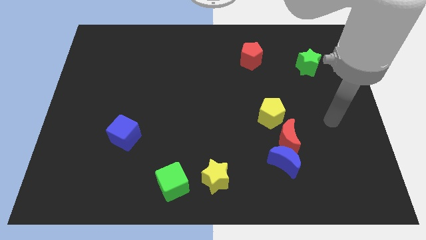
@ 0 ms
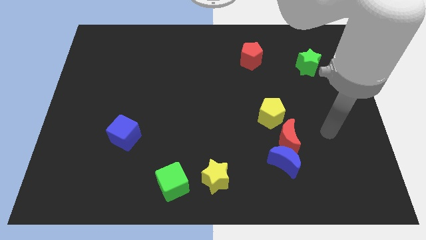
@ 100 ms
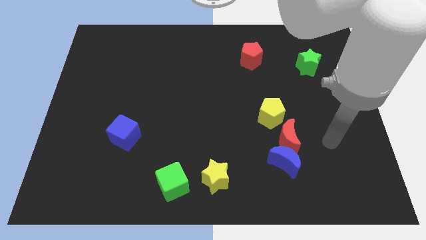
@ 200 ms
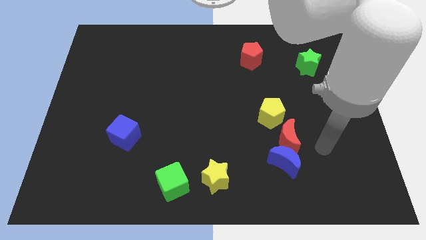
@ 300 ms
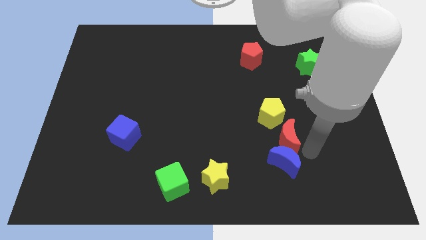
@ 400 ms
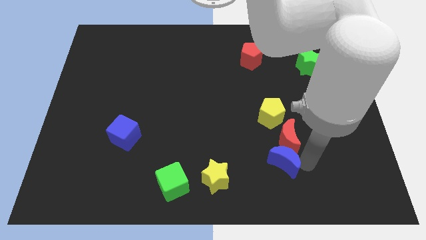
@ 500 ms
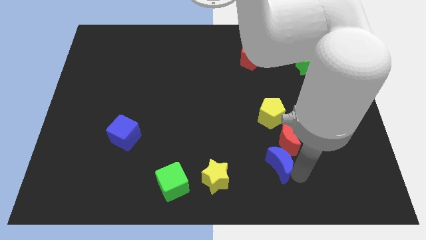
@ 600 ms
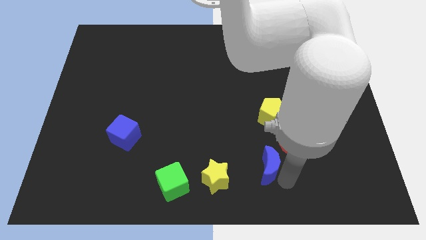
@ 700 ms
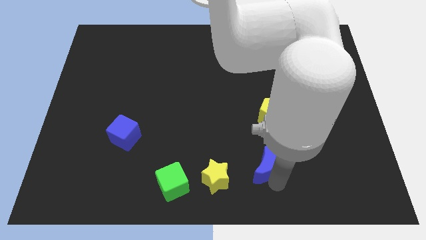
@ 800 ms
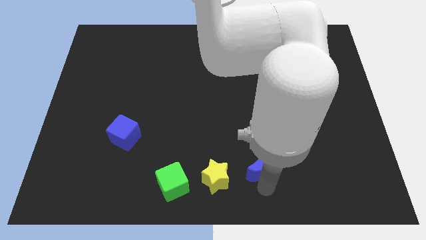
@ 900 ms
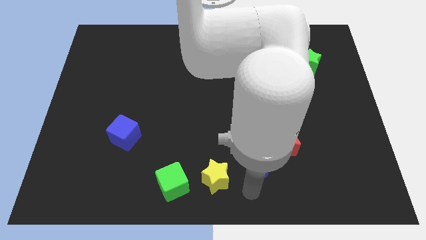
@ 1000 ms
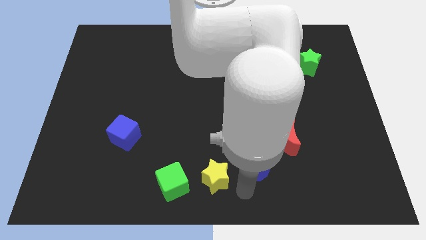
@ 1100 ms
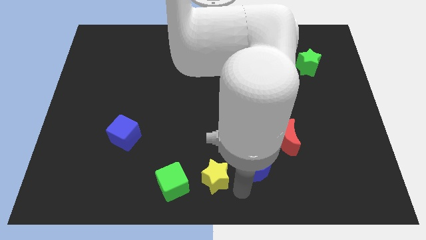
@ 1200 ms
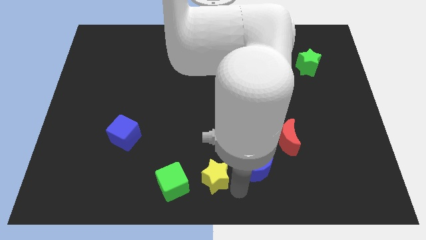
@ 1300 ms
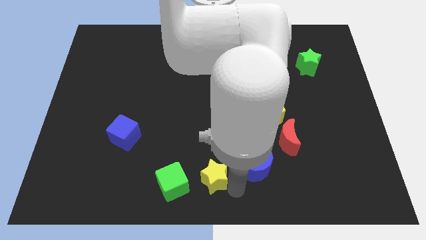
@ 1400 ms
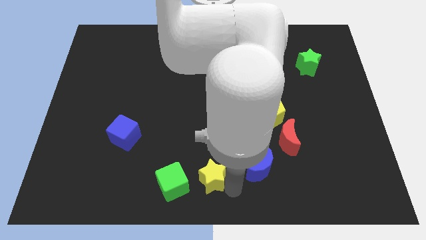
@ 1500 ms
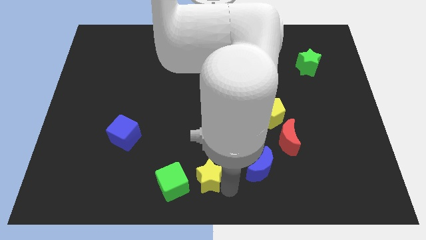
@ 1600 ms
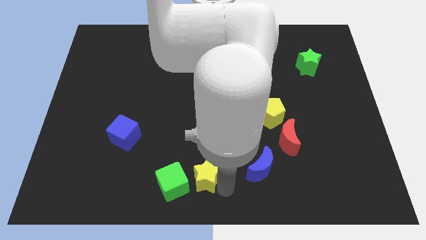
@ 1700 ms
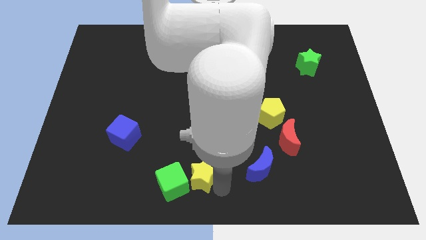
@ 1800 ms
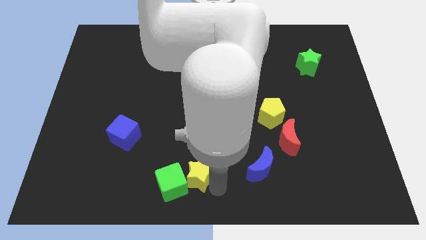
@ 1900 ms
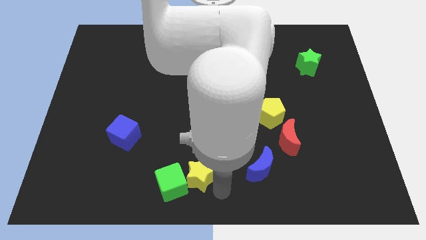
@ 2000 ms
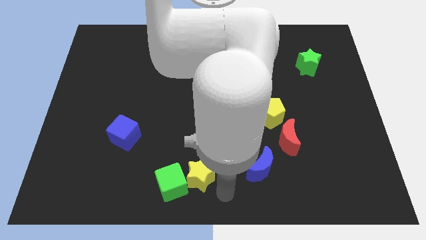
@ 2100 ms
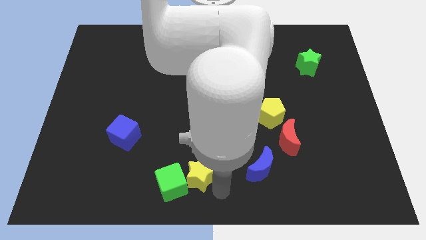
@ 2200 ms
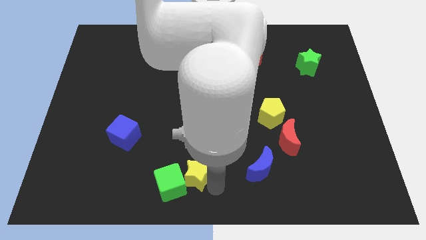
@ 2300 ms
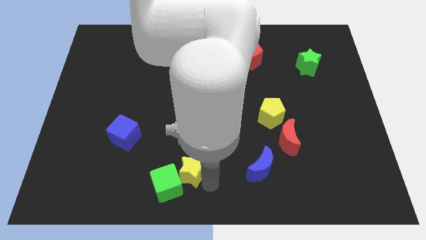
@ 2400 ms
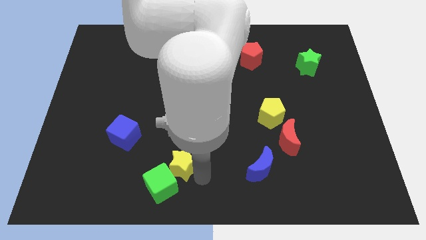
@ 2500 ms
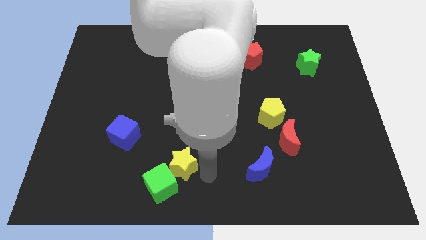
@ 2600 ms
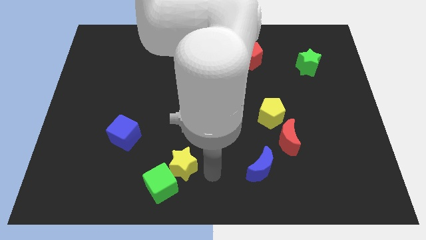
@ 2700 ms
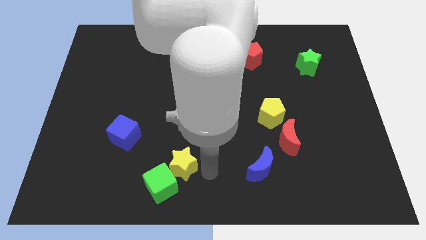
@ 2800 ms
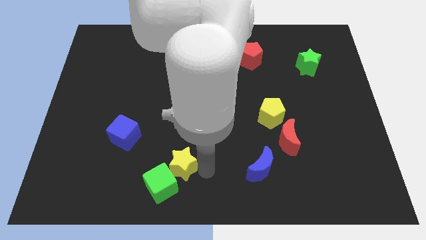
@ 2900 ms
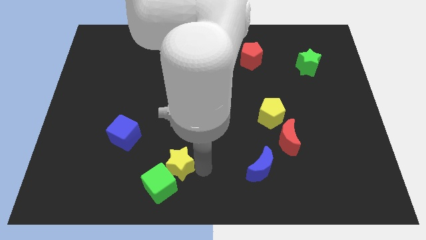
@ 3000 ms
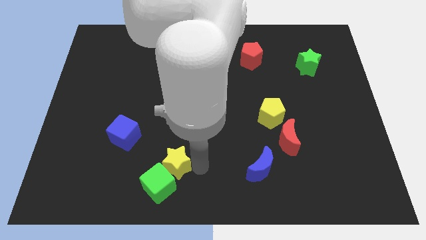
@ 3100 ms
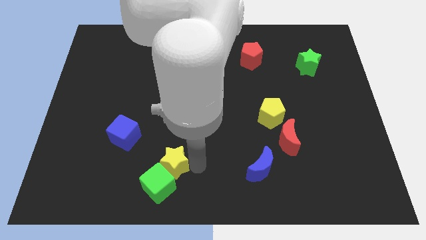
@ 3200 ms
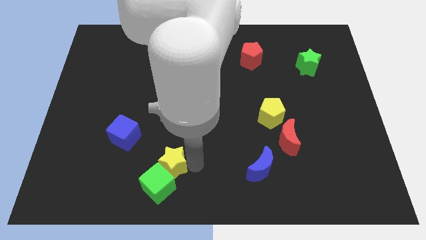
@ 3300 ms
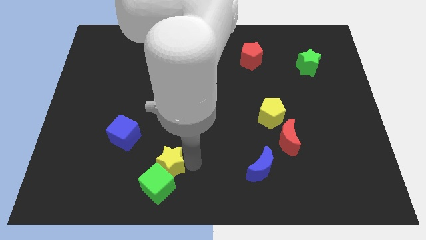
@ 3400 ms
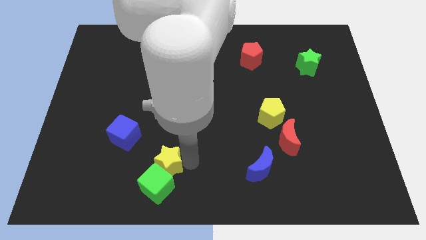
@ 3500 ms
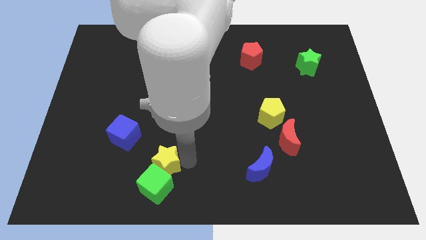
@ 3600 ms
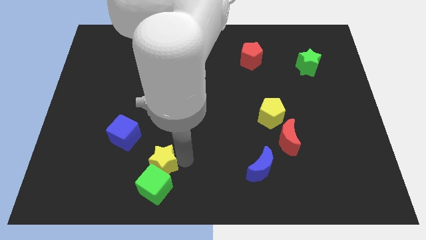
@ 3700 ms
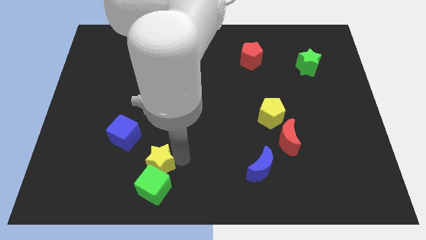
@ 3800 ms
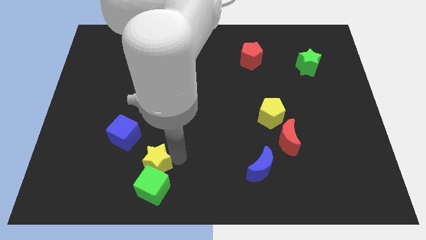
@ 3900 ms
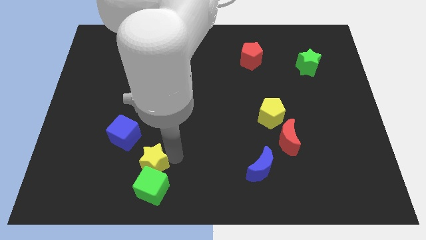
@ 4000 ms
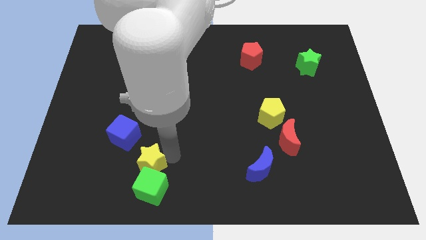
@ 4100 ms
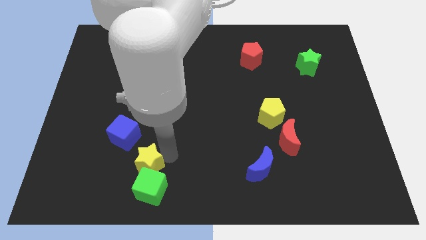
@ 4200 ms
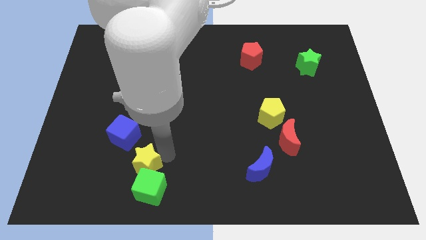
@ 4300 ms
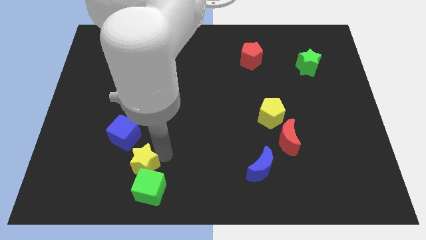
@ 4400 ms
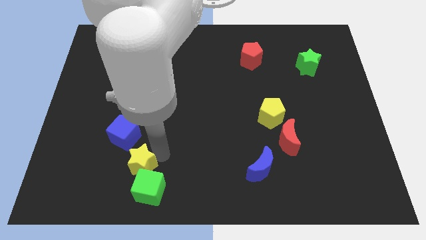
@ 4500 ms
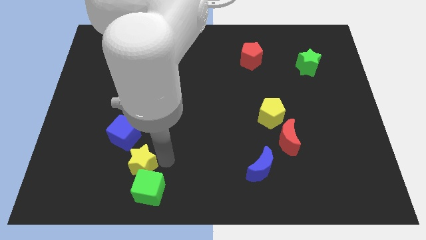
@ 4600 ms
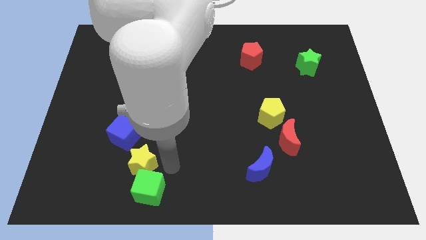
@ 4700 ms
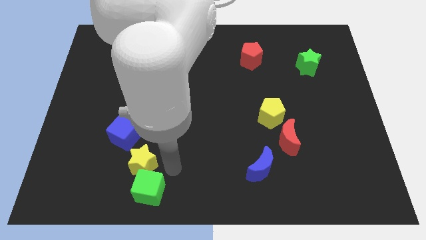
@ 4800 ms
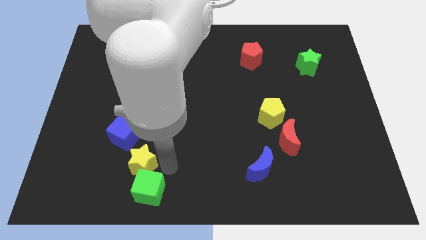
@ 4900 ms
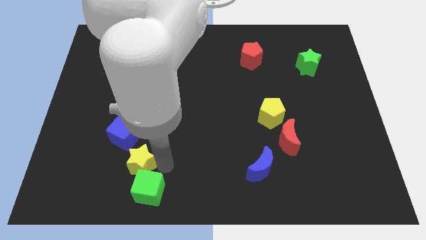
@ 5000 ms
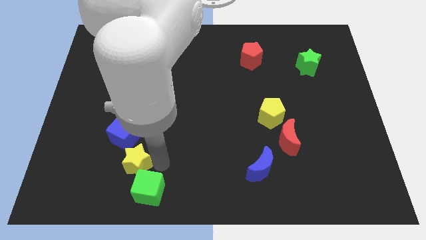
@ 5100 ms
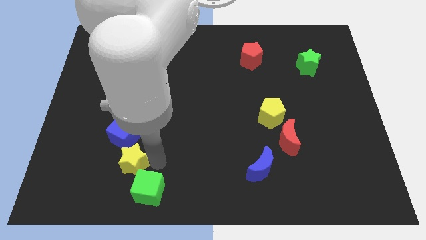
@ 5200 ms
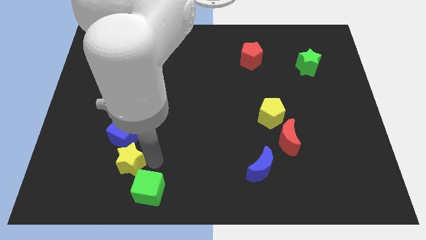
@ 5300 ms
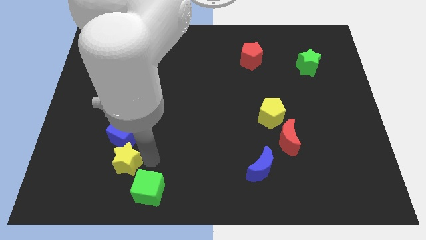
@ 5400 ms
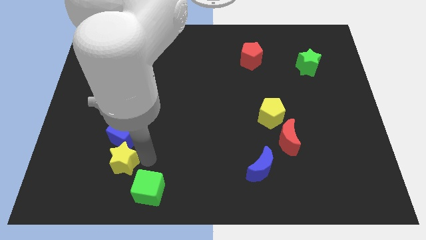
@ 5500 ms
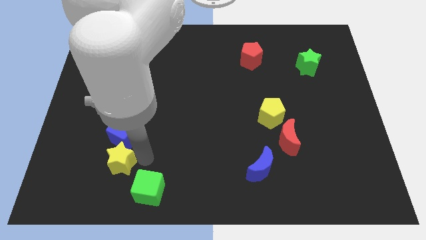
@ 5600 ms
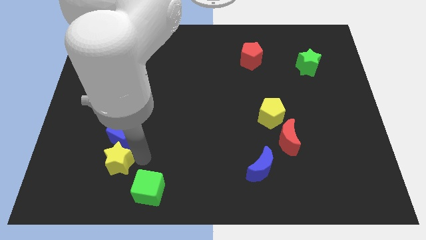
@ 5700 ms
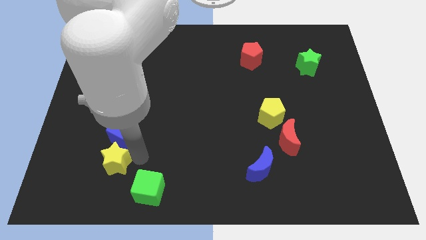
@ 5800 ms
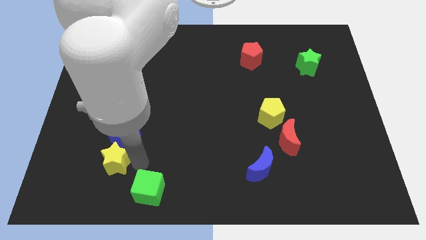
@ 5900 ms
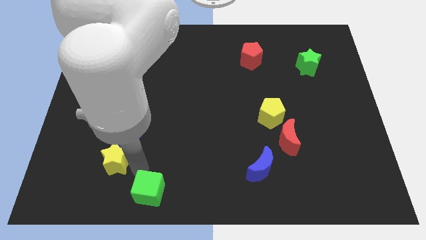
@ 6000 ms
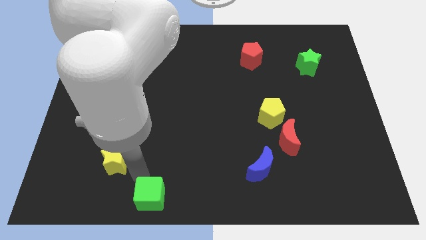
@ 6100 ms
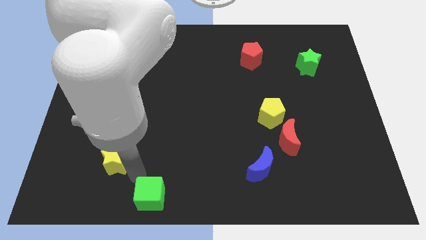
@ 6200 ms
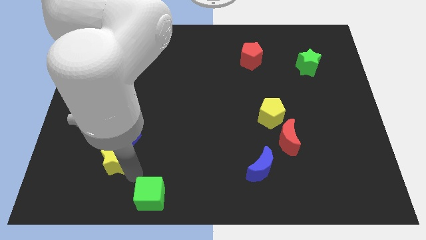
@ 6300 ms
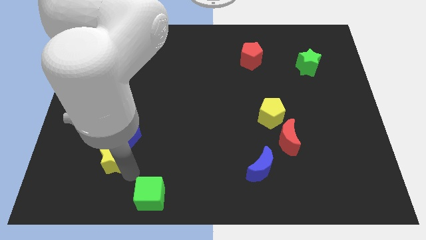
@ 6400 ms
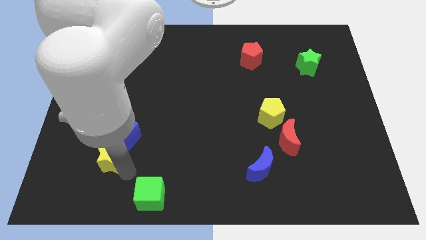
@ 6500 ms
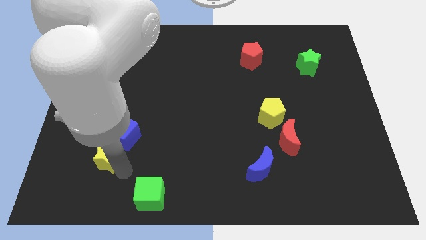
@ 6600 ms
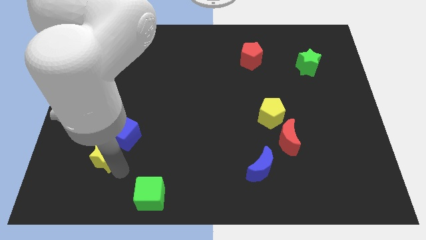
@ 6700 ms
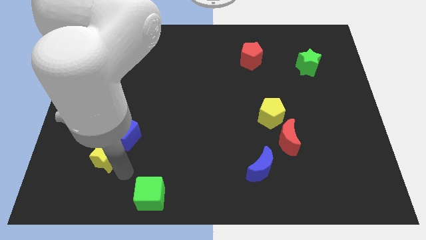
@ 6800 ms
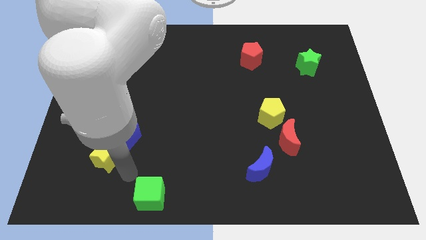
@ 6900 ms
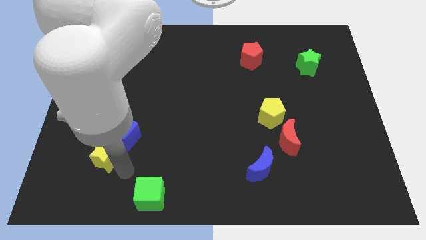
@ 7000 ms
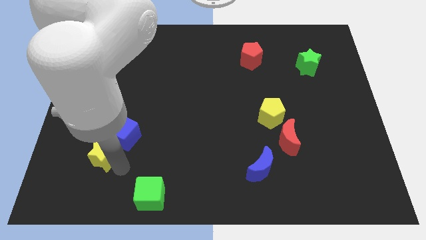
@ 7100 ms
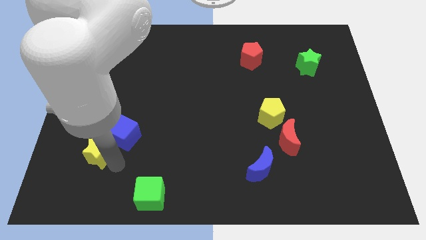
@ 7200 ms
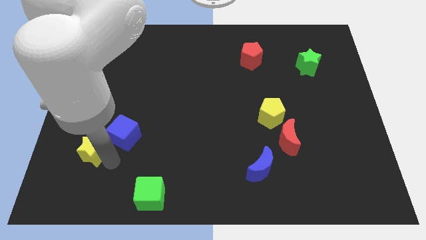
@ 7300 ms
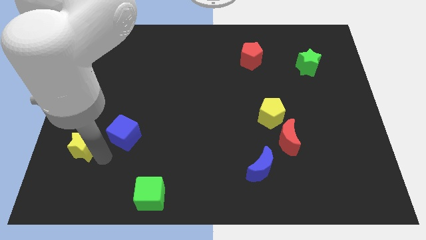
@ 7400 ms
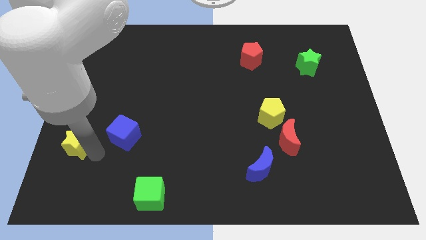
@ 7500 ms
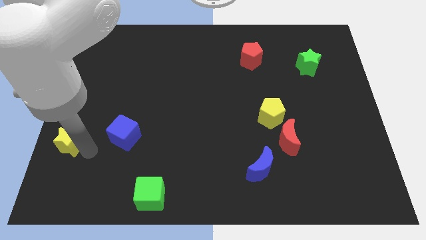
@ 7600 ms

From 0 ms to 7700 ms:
push the yellow star to the center left
